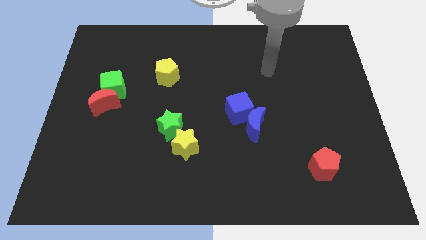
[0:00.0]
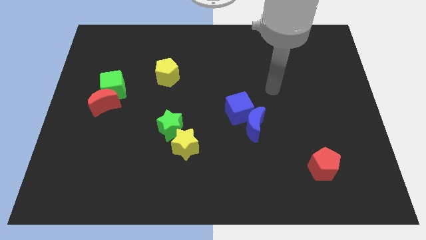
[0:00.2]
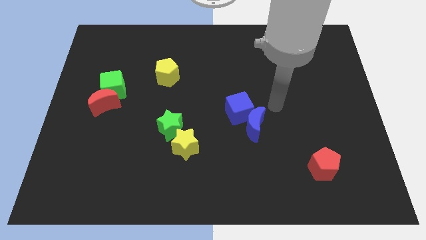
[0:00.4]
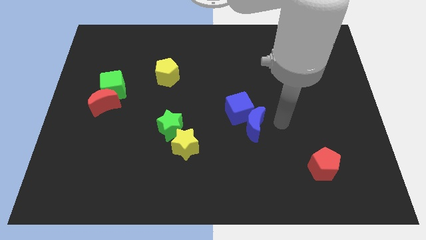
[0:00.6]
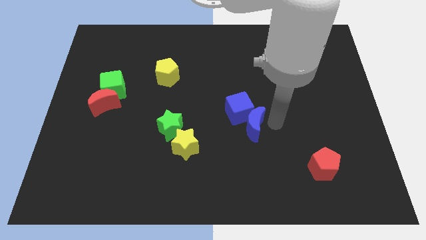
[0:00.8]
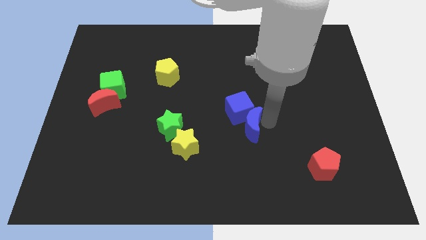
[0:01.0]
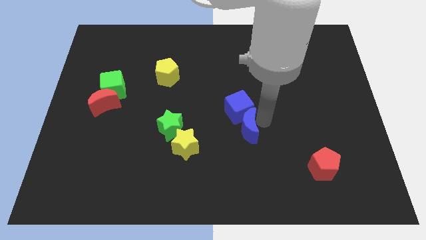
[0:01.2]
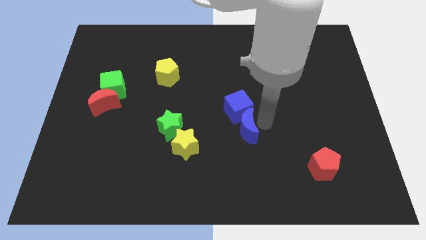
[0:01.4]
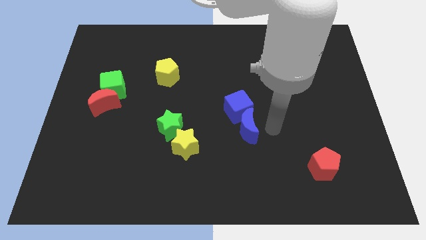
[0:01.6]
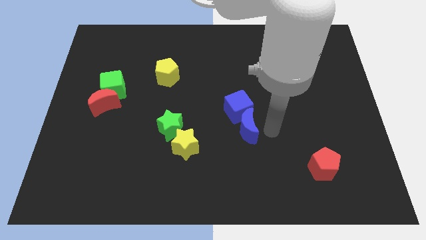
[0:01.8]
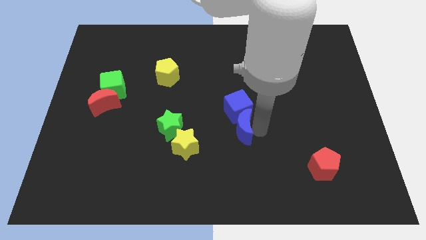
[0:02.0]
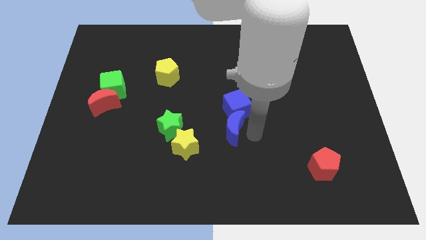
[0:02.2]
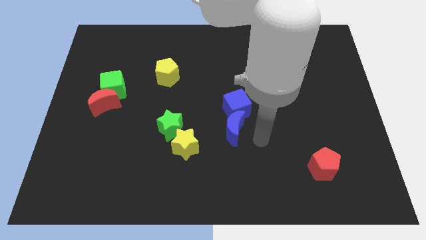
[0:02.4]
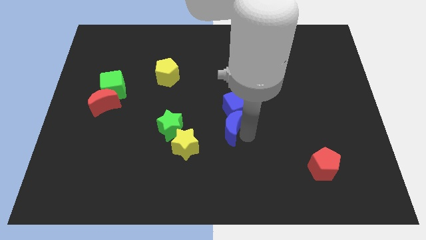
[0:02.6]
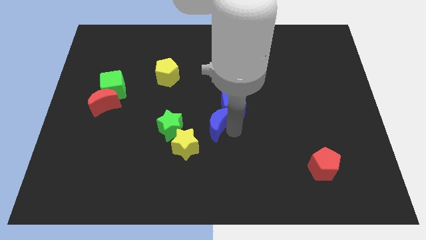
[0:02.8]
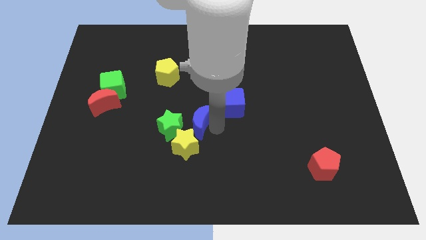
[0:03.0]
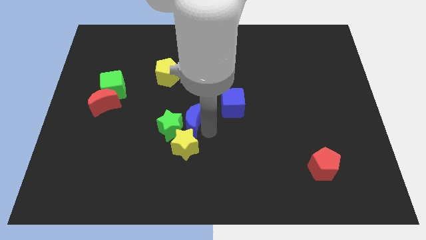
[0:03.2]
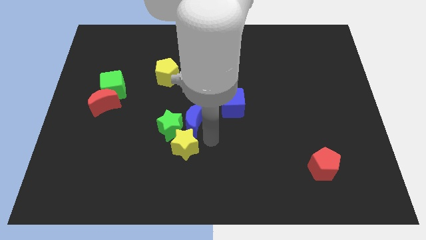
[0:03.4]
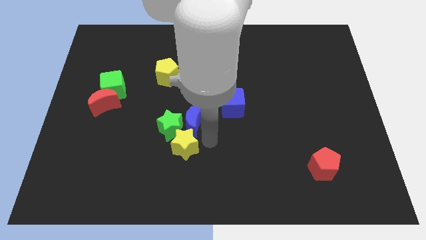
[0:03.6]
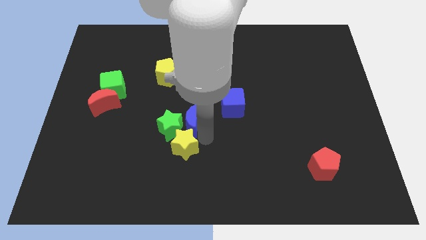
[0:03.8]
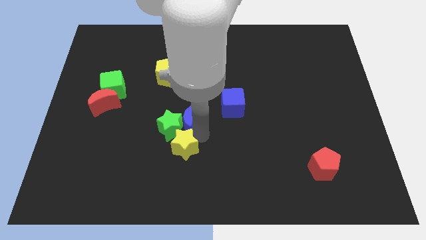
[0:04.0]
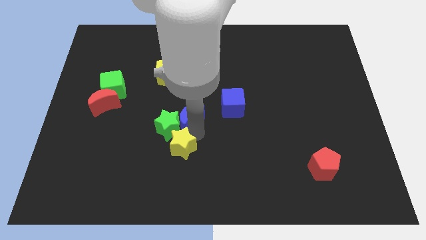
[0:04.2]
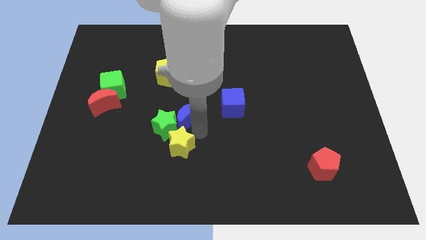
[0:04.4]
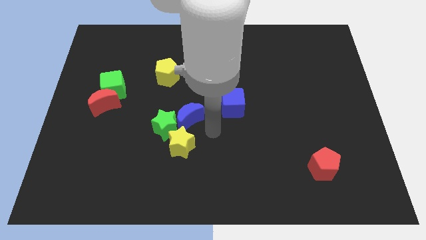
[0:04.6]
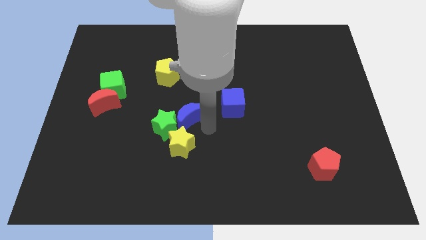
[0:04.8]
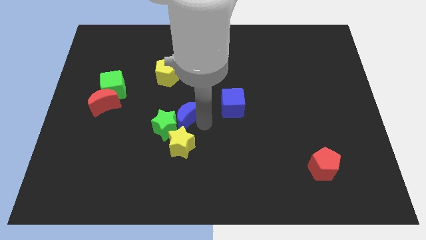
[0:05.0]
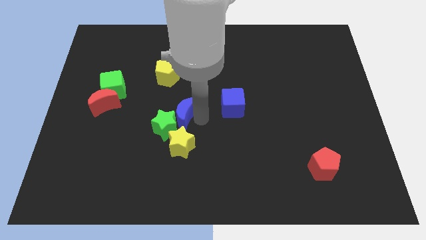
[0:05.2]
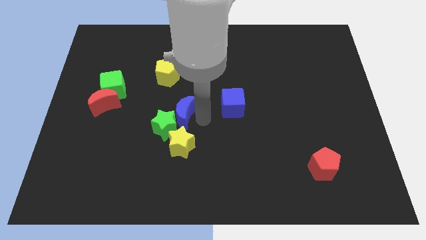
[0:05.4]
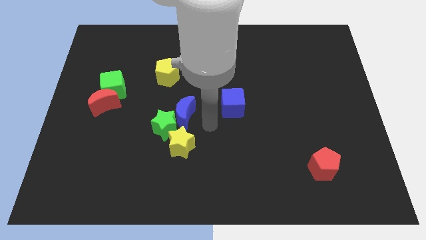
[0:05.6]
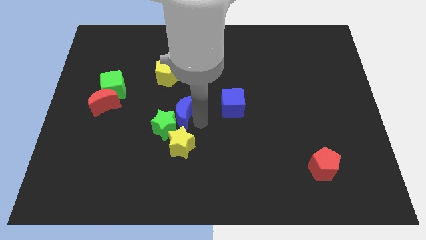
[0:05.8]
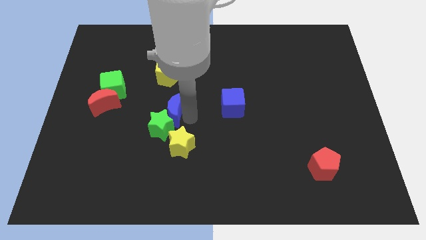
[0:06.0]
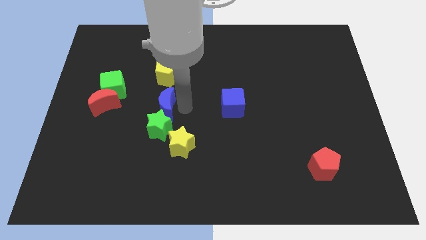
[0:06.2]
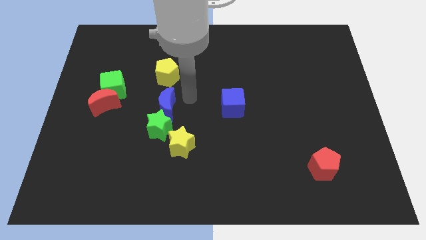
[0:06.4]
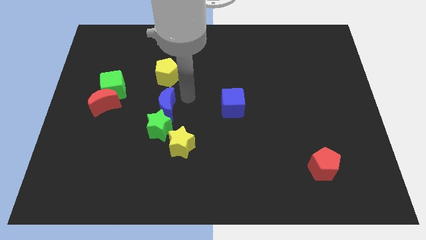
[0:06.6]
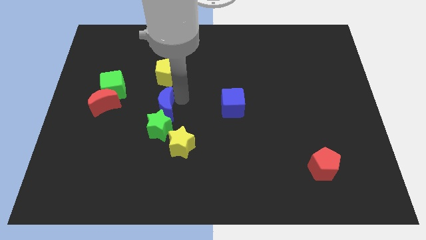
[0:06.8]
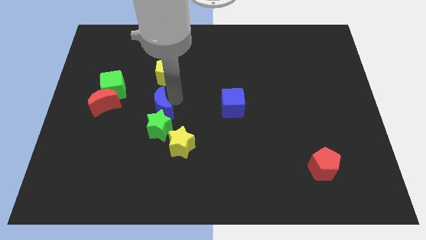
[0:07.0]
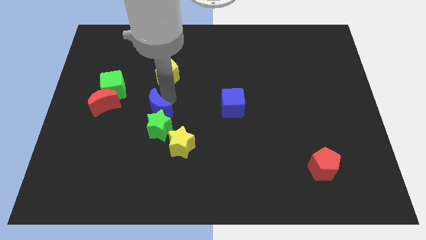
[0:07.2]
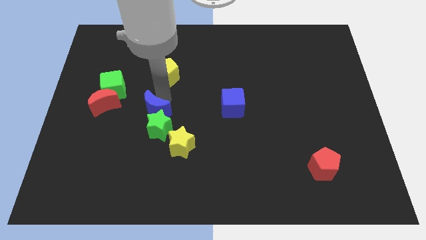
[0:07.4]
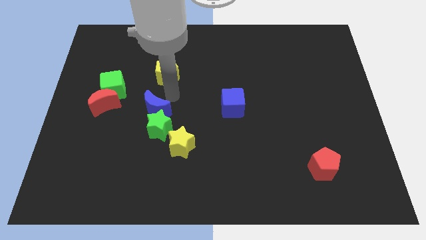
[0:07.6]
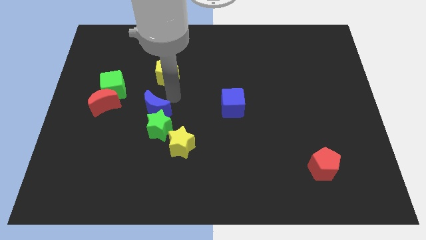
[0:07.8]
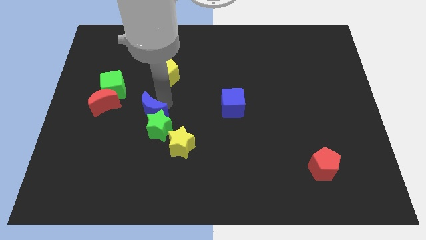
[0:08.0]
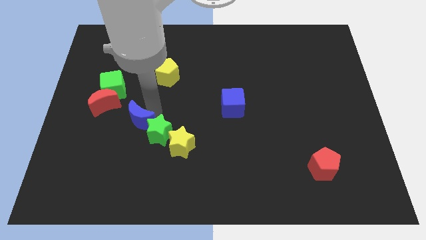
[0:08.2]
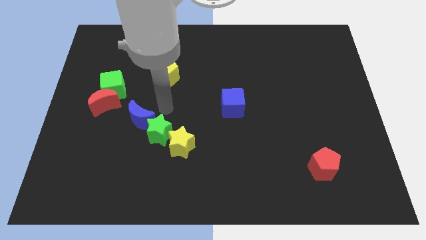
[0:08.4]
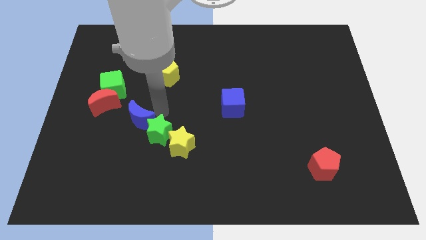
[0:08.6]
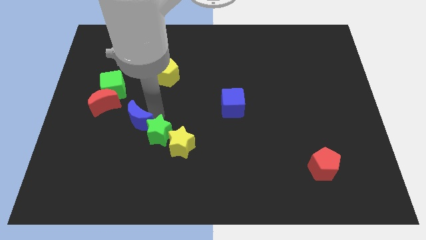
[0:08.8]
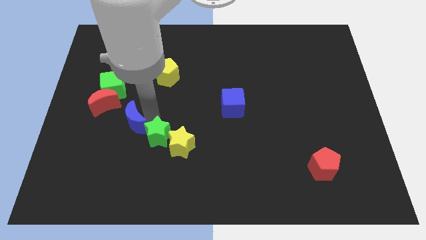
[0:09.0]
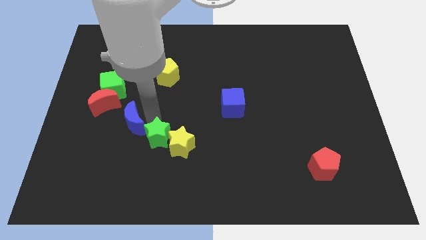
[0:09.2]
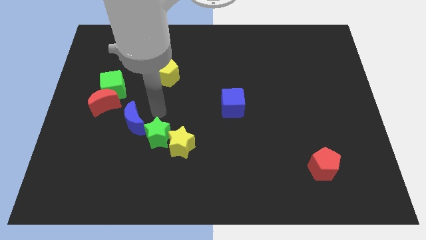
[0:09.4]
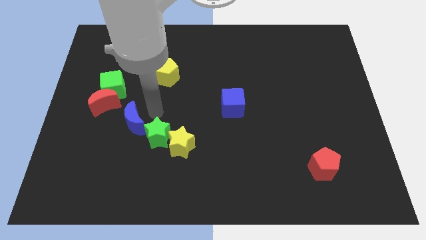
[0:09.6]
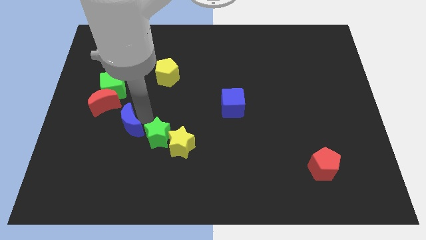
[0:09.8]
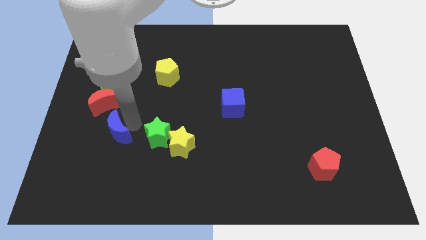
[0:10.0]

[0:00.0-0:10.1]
slide the blue moon below the red moon

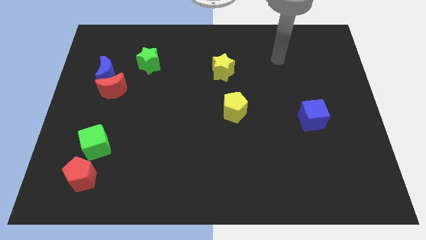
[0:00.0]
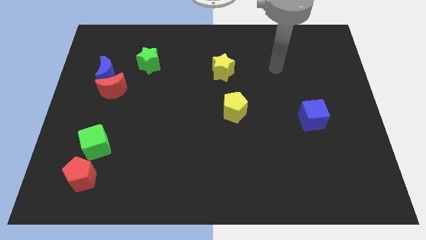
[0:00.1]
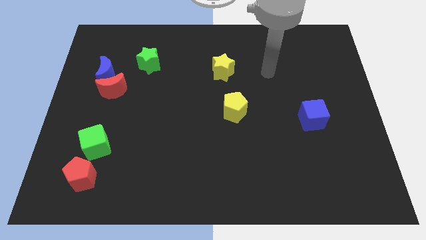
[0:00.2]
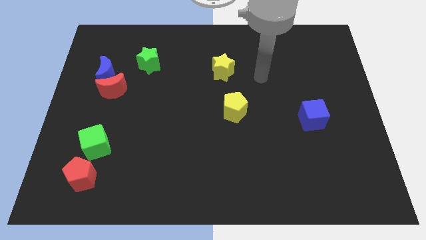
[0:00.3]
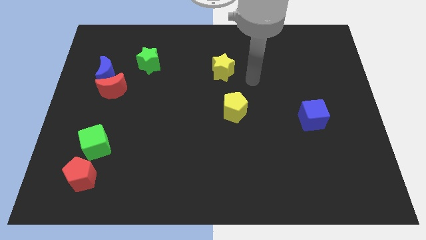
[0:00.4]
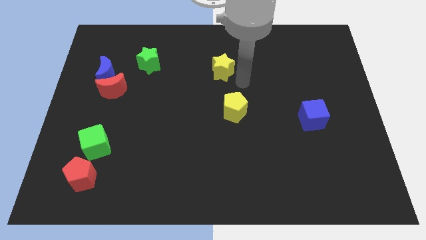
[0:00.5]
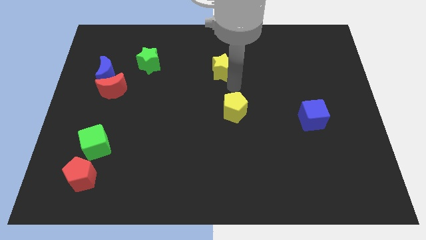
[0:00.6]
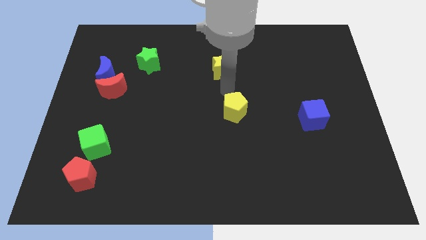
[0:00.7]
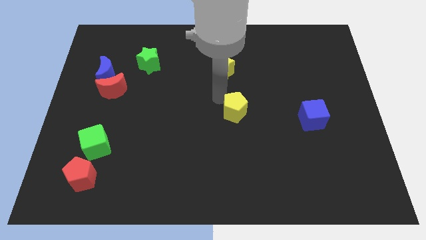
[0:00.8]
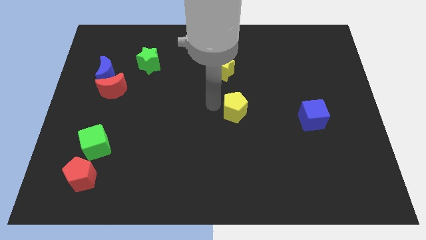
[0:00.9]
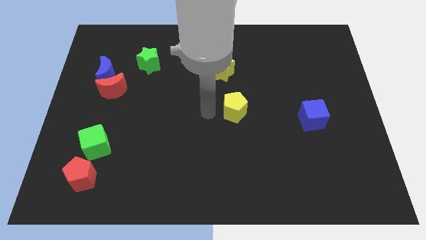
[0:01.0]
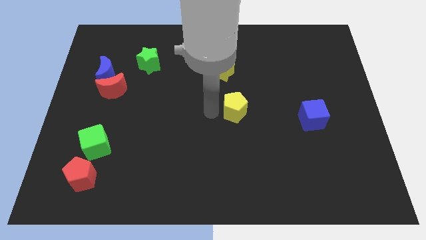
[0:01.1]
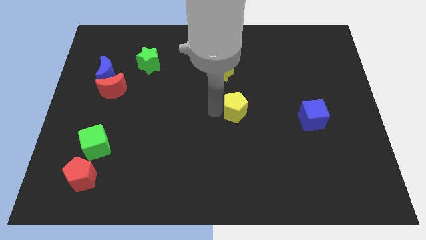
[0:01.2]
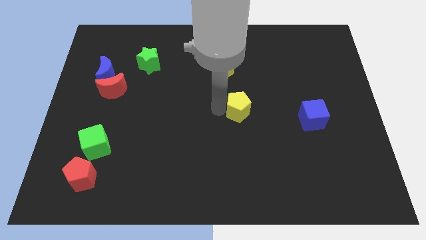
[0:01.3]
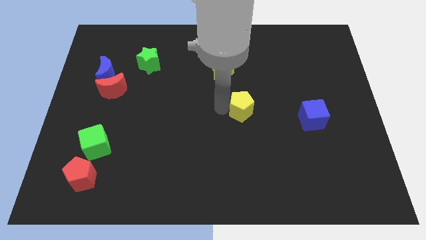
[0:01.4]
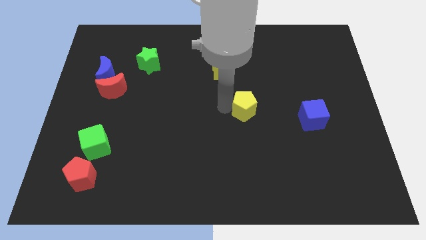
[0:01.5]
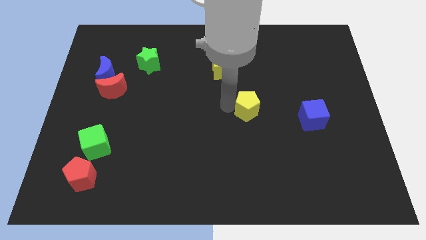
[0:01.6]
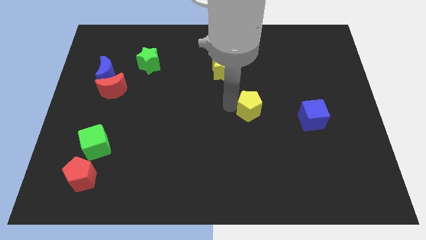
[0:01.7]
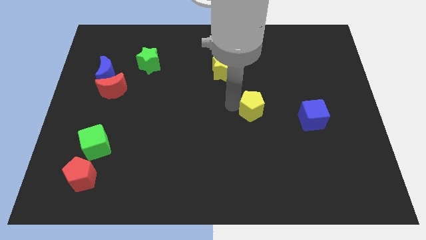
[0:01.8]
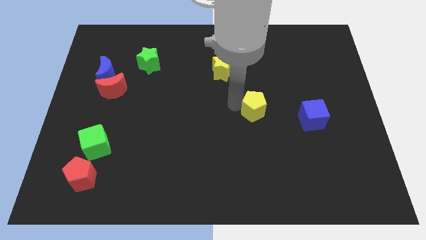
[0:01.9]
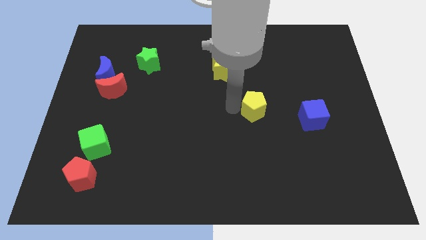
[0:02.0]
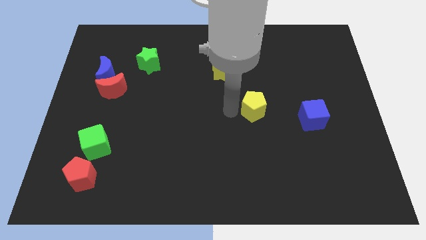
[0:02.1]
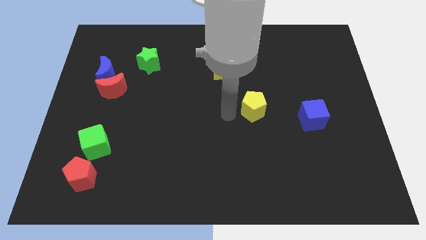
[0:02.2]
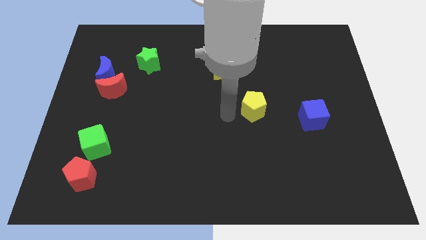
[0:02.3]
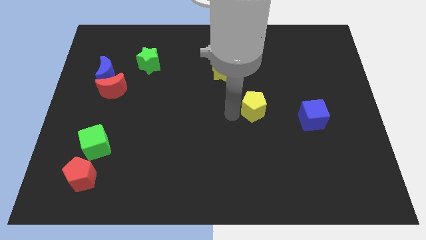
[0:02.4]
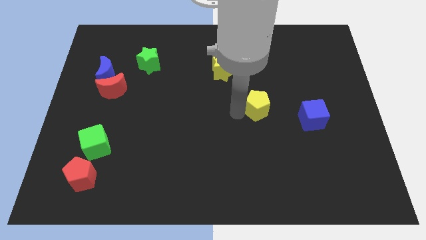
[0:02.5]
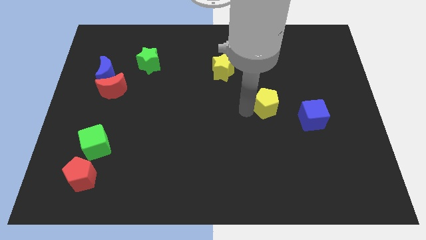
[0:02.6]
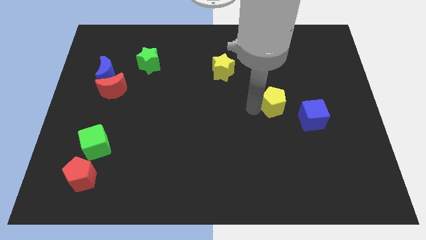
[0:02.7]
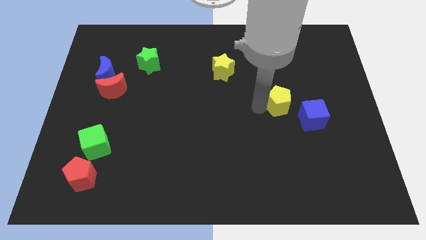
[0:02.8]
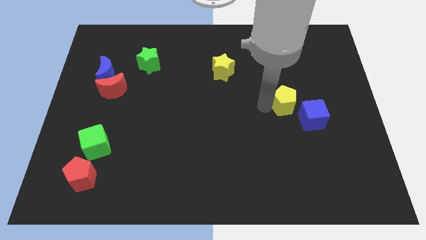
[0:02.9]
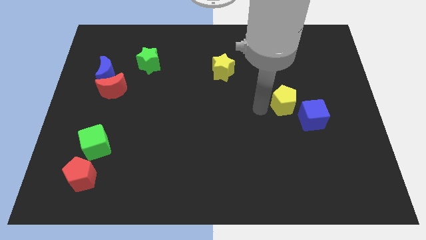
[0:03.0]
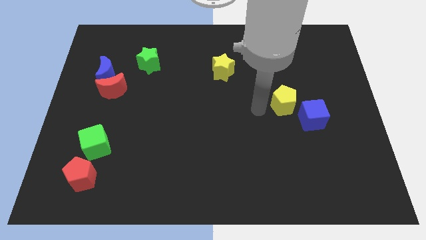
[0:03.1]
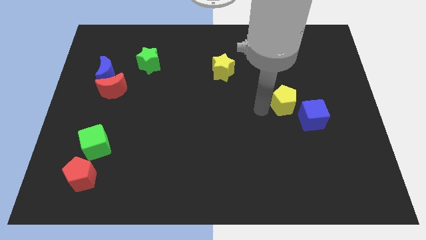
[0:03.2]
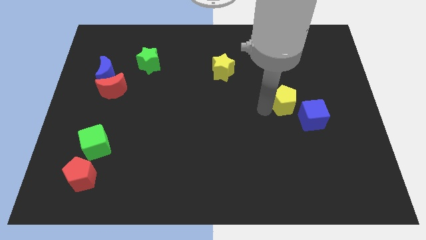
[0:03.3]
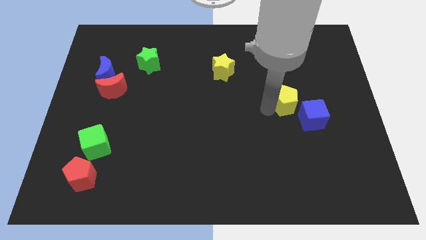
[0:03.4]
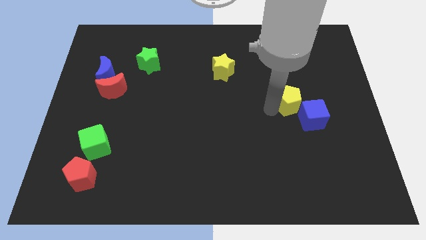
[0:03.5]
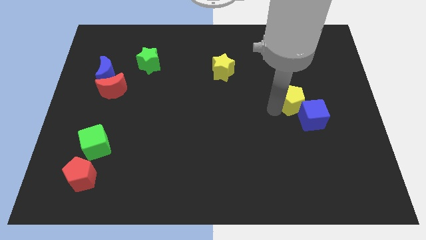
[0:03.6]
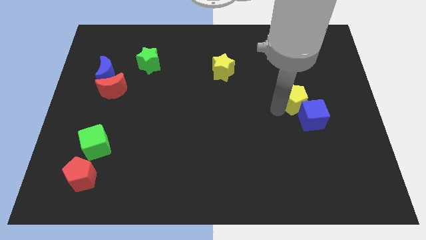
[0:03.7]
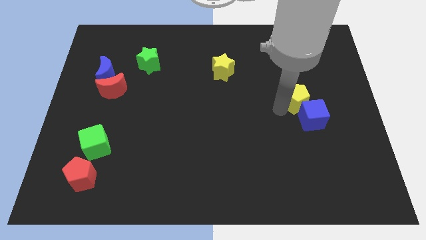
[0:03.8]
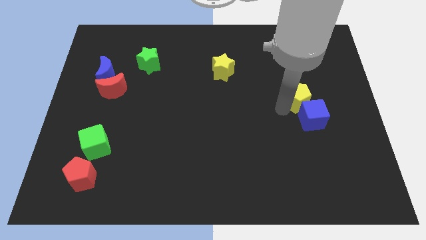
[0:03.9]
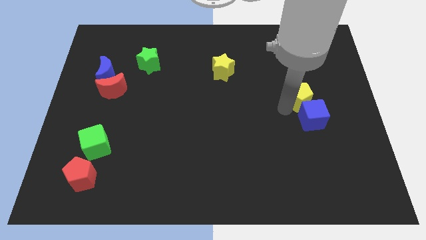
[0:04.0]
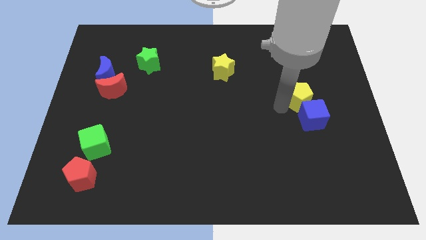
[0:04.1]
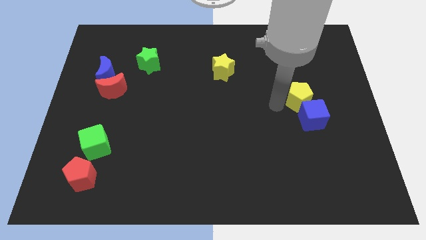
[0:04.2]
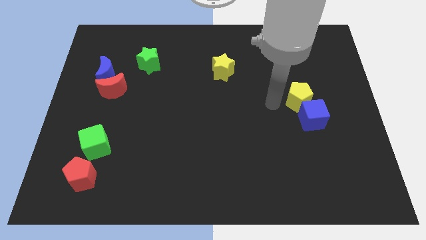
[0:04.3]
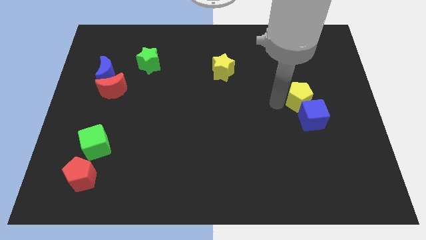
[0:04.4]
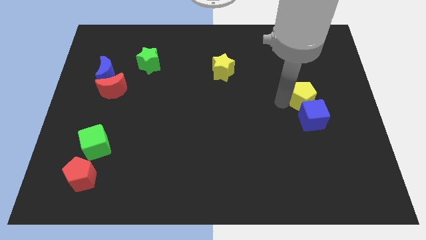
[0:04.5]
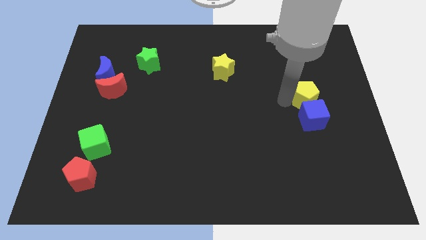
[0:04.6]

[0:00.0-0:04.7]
slide the yellow pentagon to the top right side of the blue cube
